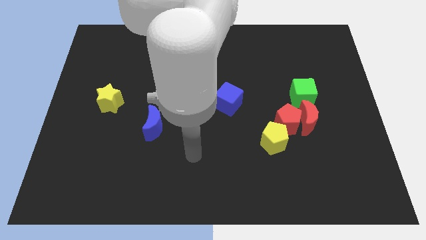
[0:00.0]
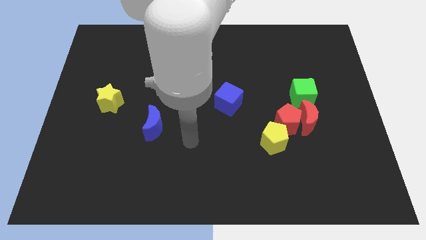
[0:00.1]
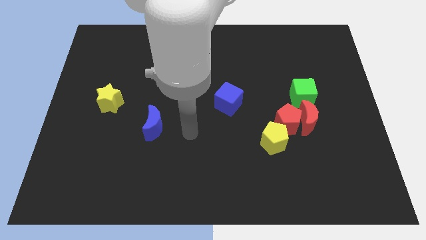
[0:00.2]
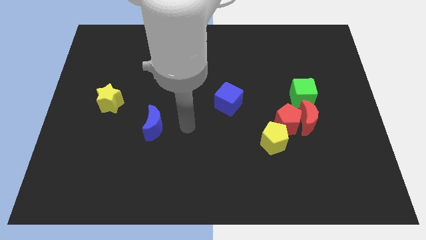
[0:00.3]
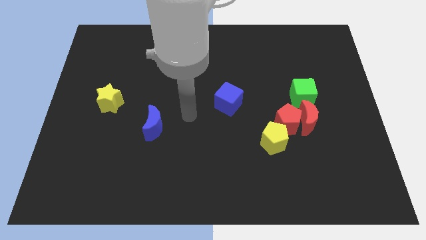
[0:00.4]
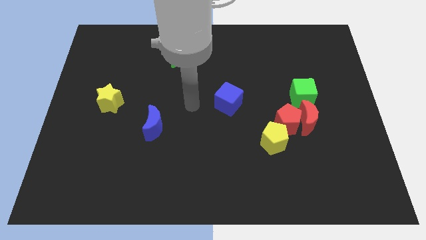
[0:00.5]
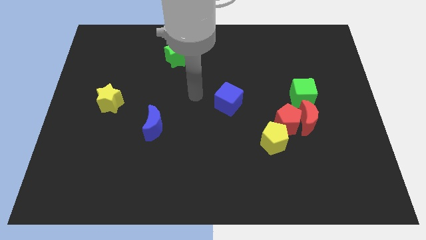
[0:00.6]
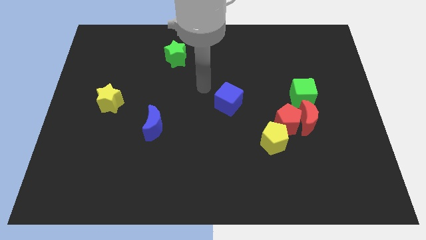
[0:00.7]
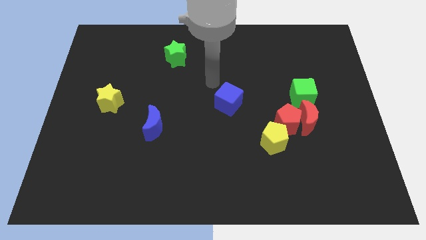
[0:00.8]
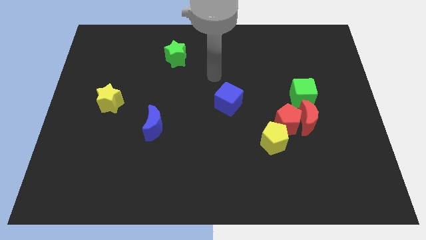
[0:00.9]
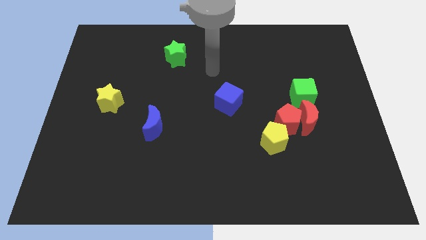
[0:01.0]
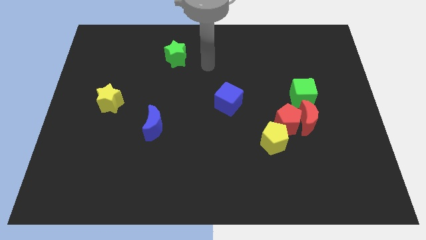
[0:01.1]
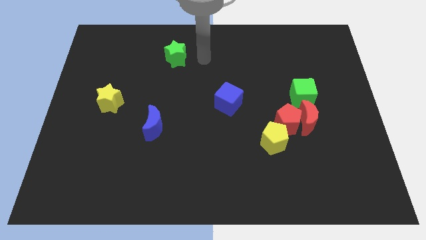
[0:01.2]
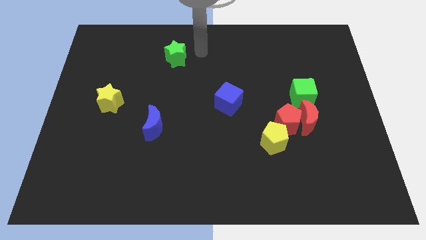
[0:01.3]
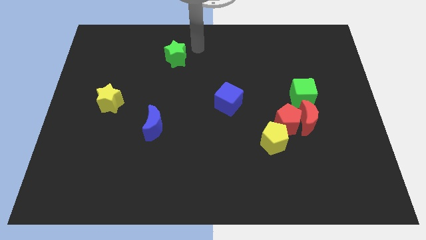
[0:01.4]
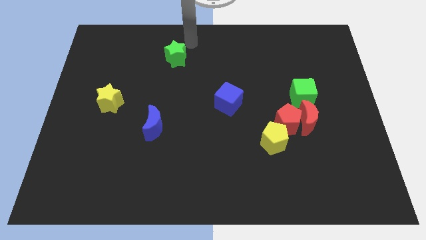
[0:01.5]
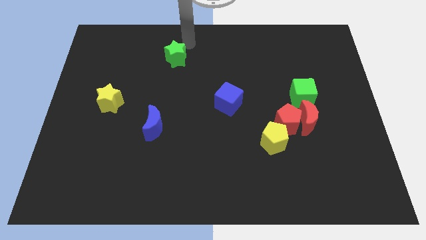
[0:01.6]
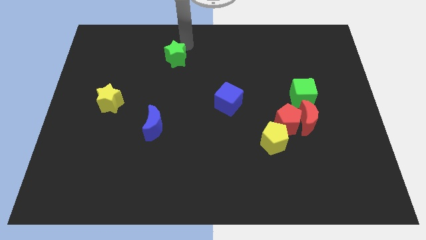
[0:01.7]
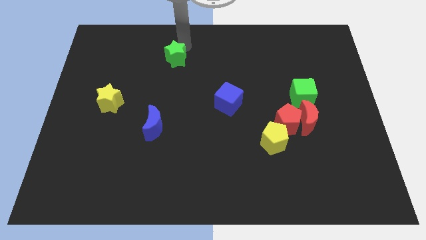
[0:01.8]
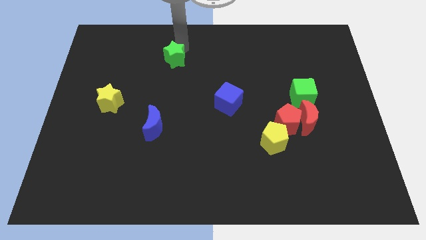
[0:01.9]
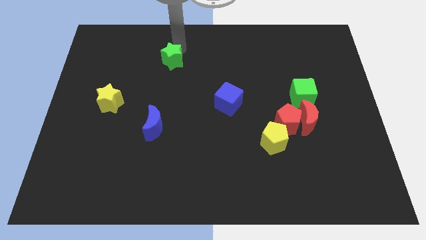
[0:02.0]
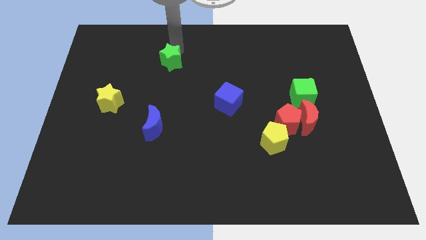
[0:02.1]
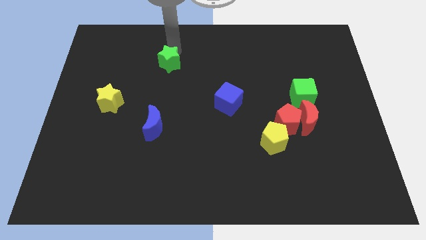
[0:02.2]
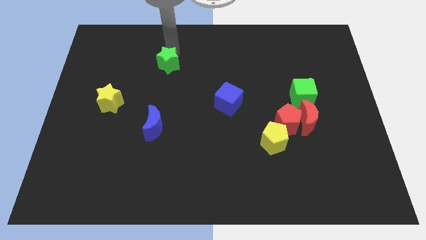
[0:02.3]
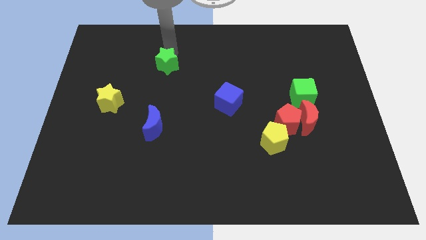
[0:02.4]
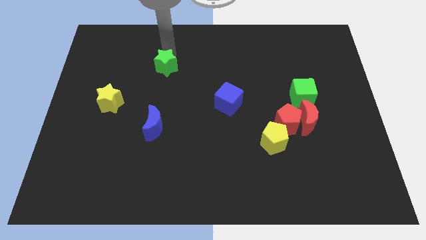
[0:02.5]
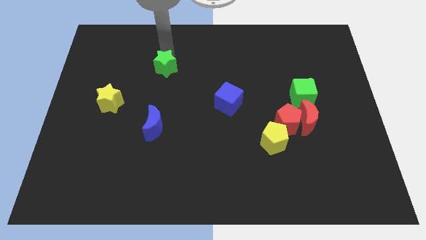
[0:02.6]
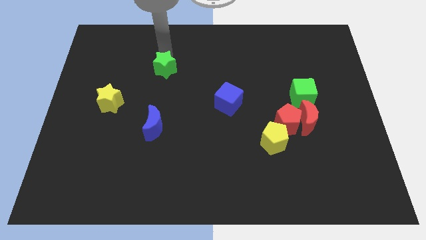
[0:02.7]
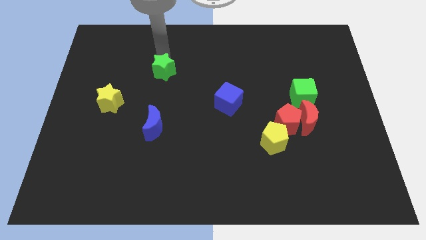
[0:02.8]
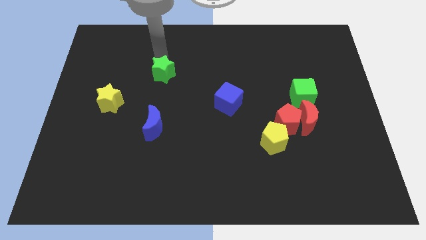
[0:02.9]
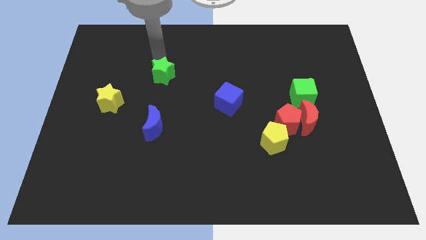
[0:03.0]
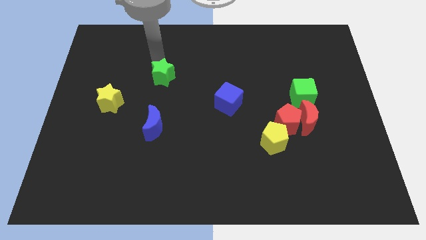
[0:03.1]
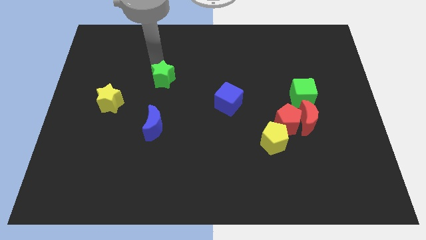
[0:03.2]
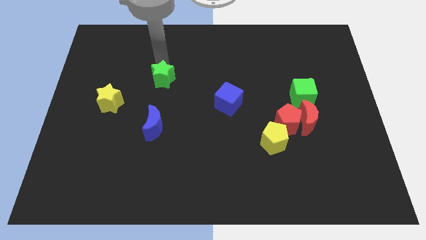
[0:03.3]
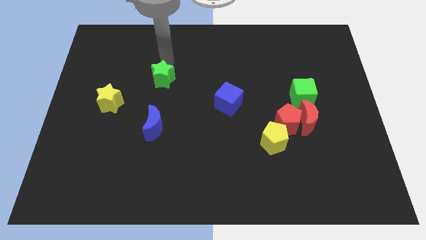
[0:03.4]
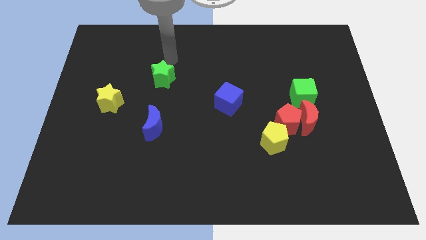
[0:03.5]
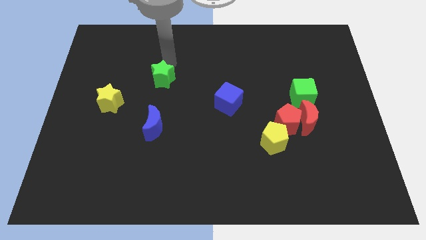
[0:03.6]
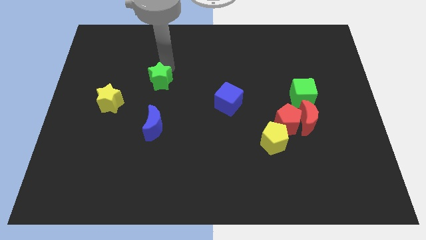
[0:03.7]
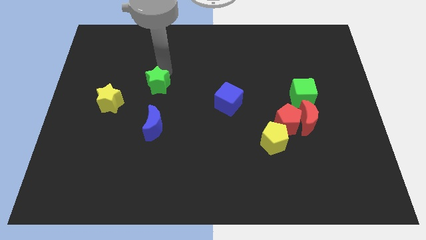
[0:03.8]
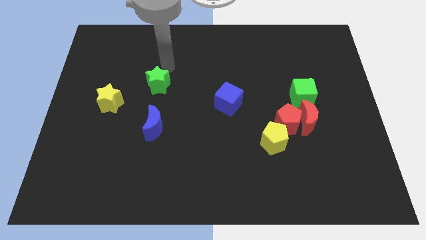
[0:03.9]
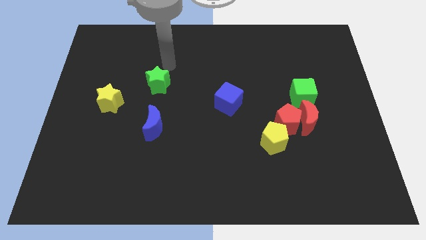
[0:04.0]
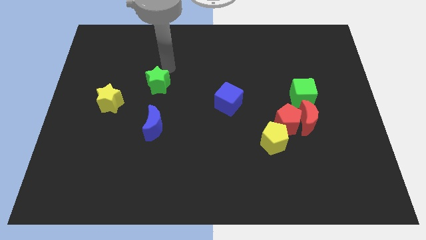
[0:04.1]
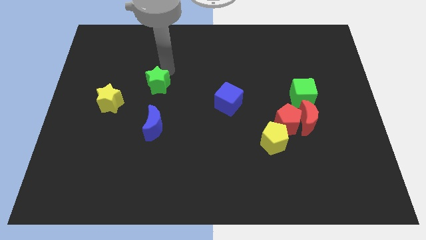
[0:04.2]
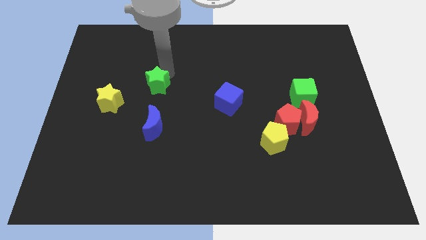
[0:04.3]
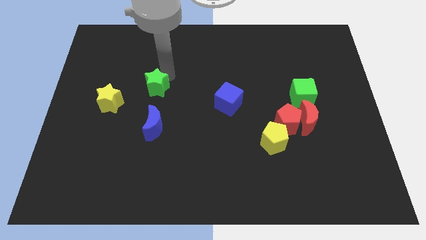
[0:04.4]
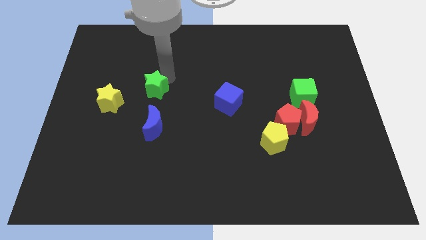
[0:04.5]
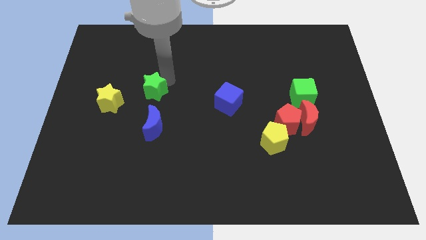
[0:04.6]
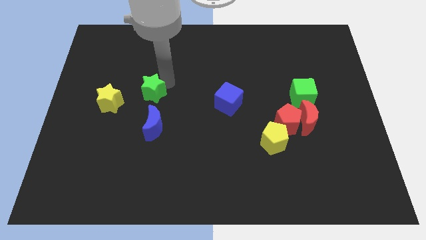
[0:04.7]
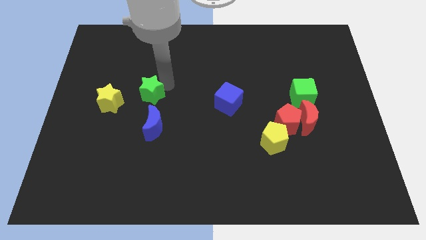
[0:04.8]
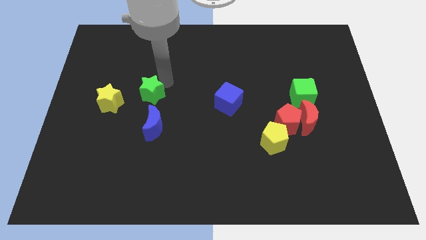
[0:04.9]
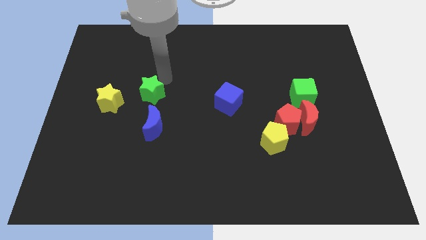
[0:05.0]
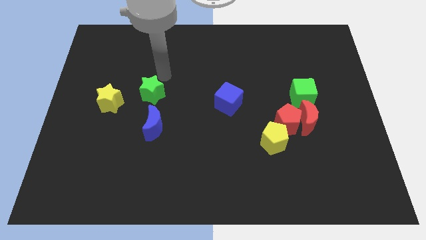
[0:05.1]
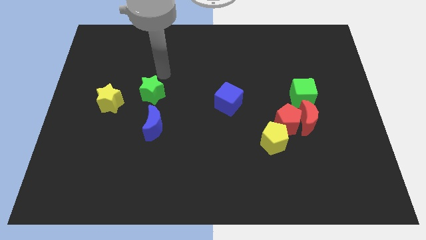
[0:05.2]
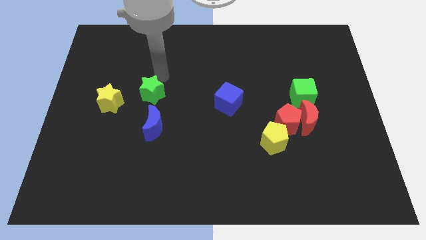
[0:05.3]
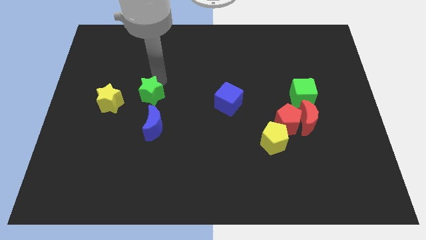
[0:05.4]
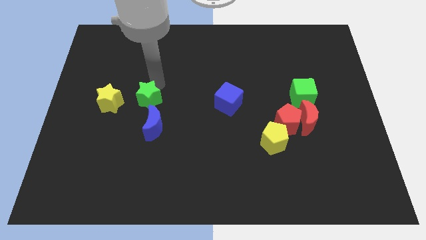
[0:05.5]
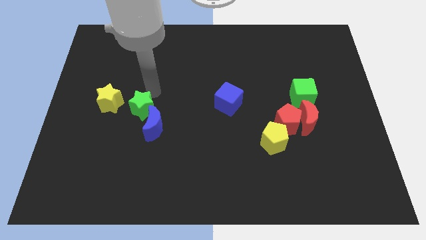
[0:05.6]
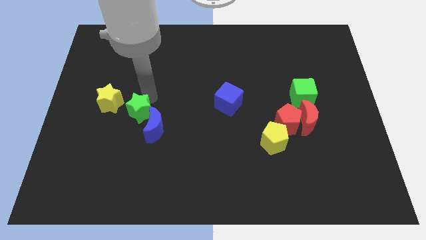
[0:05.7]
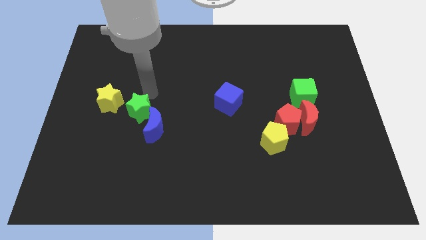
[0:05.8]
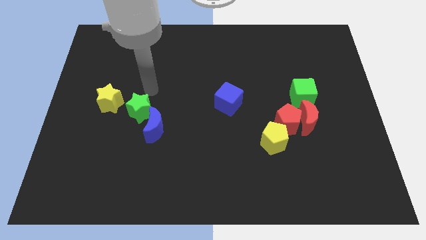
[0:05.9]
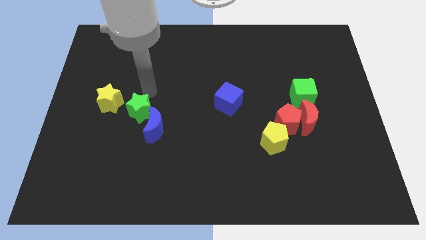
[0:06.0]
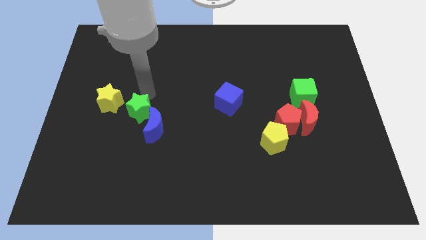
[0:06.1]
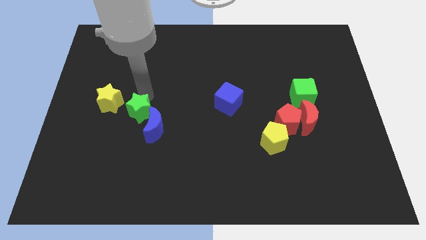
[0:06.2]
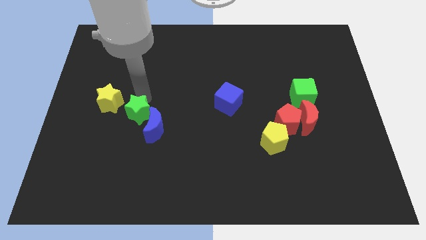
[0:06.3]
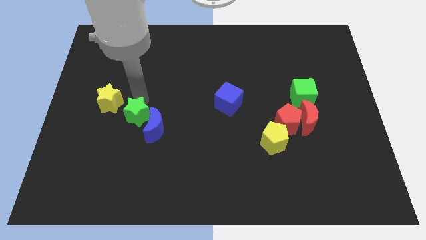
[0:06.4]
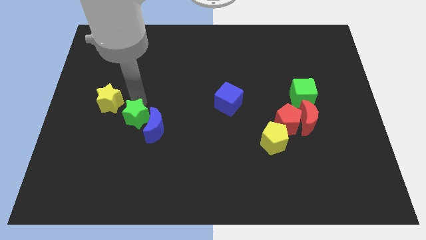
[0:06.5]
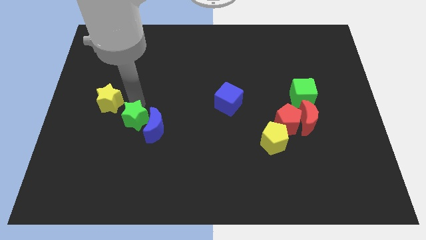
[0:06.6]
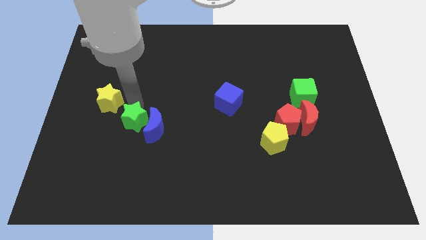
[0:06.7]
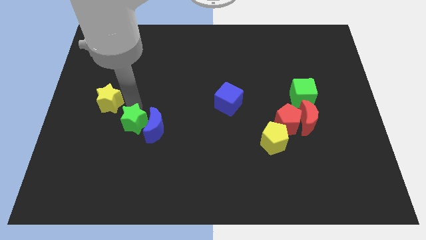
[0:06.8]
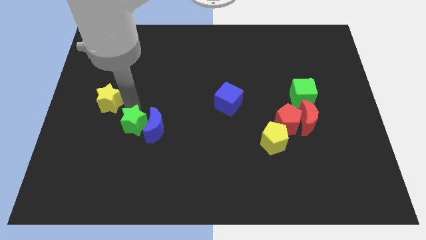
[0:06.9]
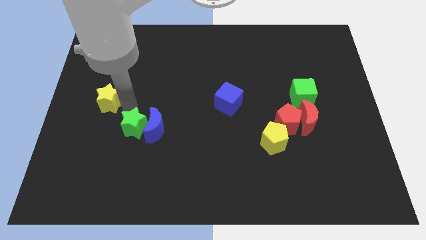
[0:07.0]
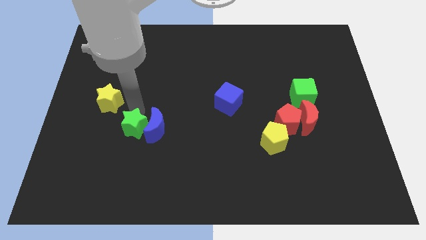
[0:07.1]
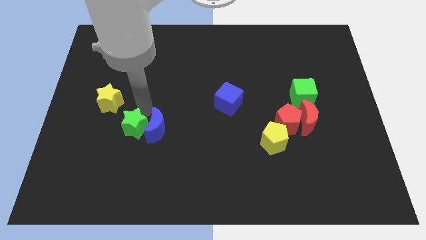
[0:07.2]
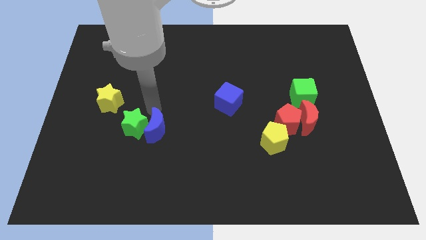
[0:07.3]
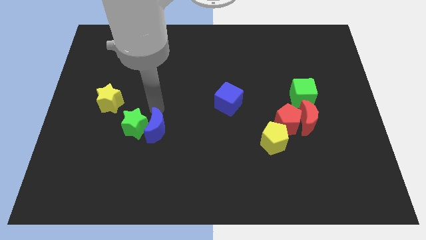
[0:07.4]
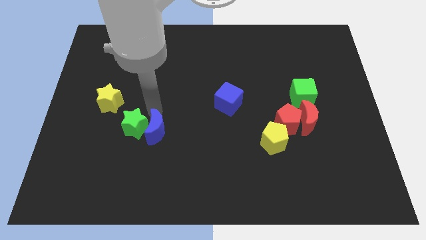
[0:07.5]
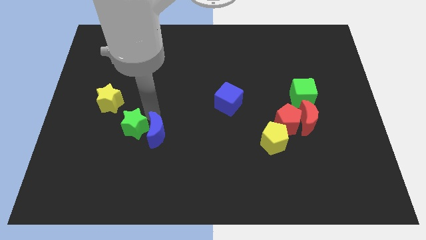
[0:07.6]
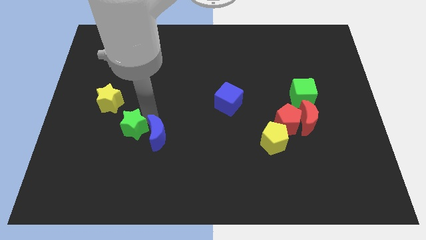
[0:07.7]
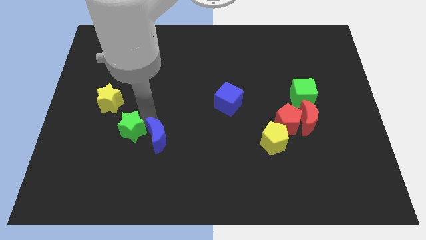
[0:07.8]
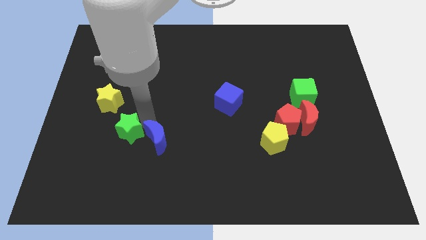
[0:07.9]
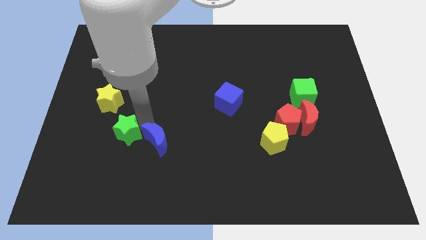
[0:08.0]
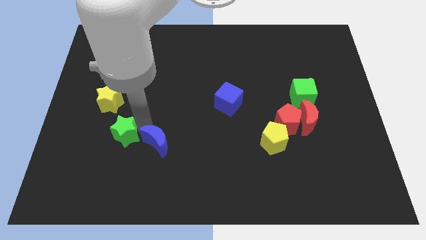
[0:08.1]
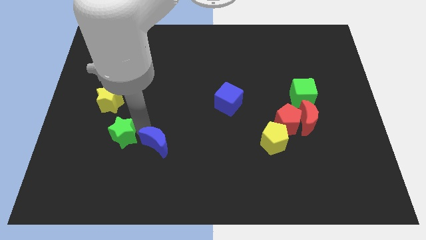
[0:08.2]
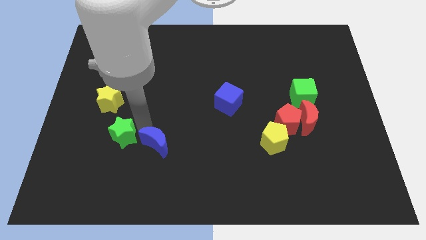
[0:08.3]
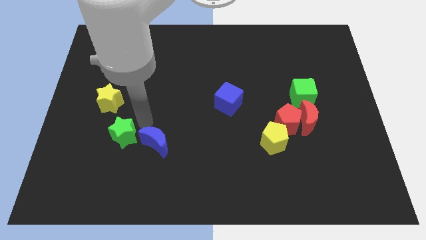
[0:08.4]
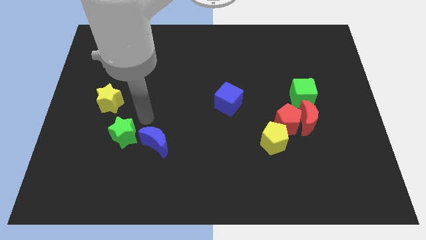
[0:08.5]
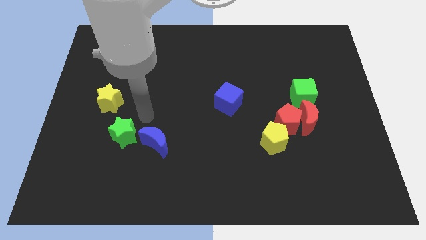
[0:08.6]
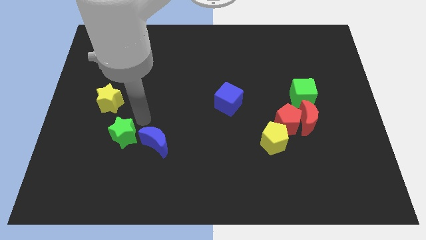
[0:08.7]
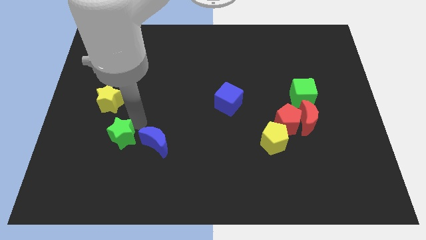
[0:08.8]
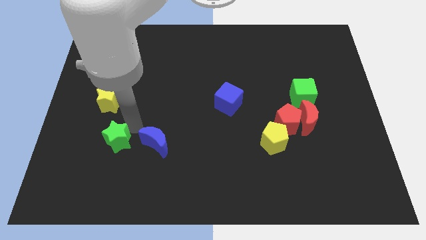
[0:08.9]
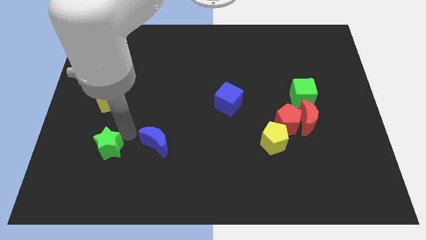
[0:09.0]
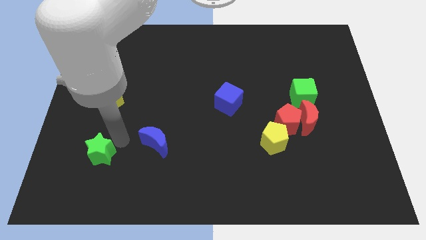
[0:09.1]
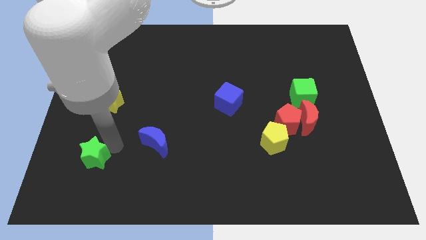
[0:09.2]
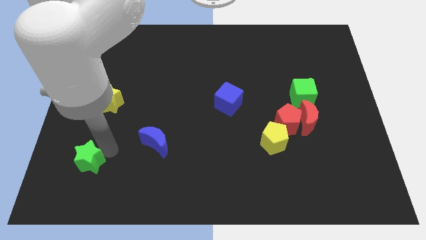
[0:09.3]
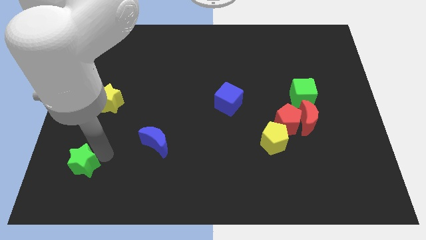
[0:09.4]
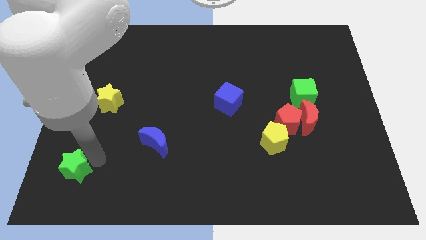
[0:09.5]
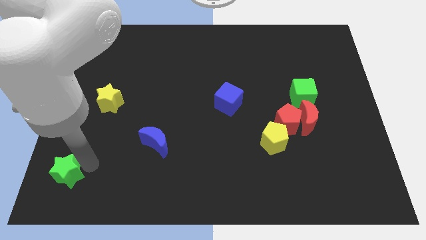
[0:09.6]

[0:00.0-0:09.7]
slide the green star to the bottom left
